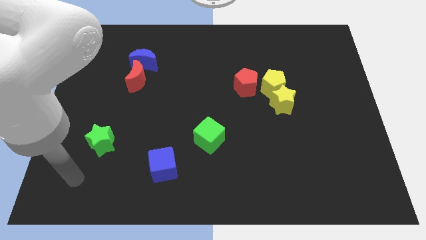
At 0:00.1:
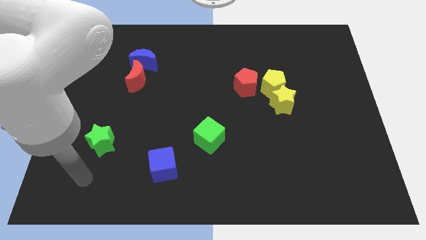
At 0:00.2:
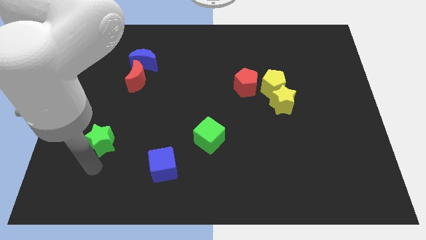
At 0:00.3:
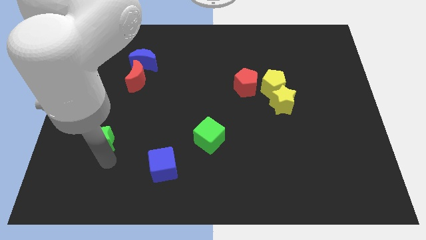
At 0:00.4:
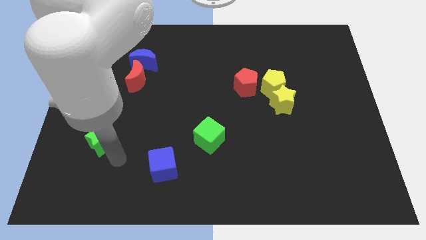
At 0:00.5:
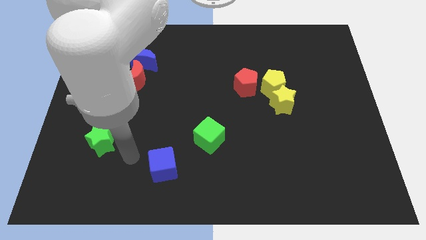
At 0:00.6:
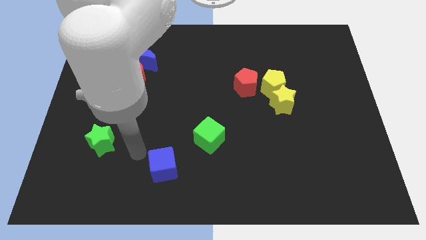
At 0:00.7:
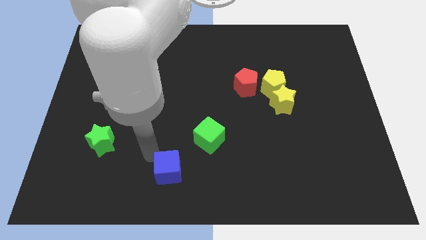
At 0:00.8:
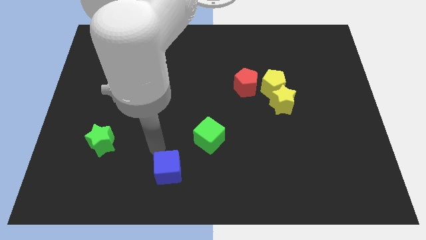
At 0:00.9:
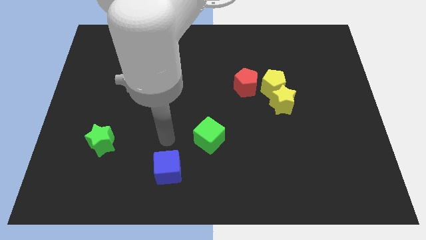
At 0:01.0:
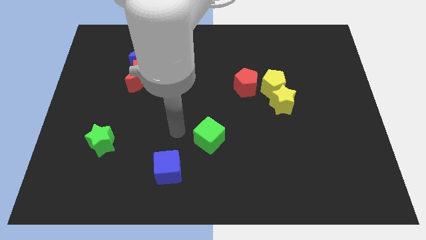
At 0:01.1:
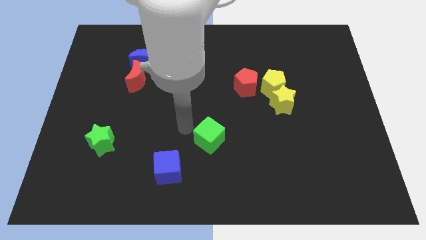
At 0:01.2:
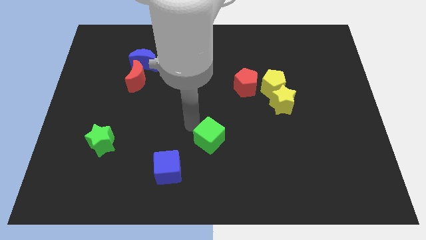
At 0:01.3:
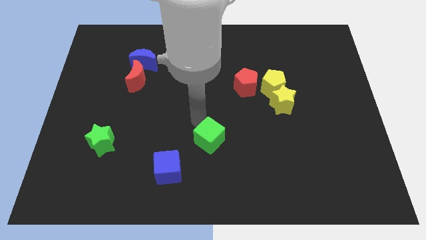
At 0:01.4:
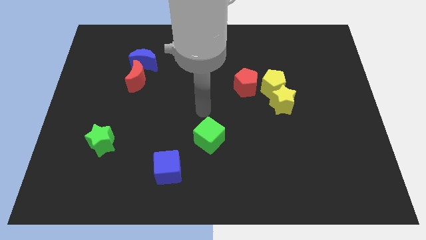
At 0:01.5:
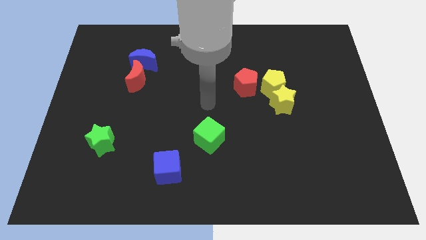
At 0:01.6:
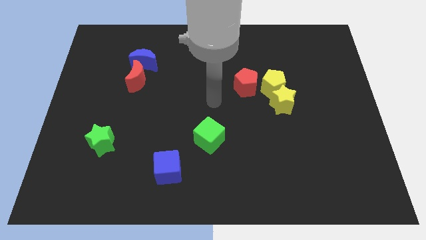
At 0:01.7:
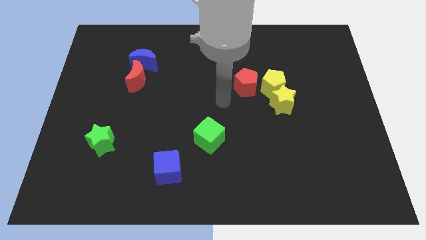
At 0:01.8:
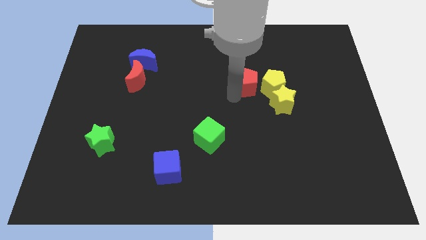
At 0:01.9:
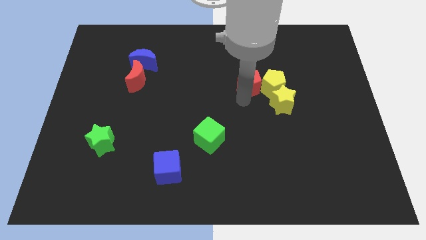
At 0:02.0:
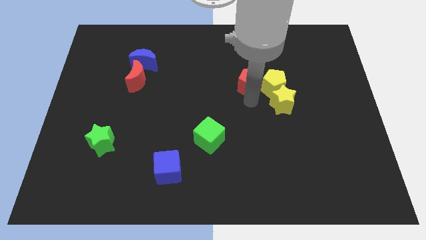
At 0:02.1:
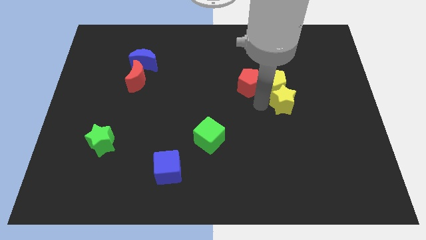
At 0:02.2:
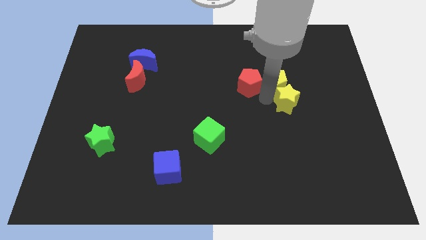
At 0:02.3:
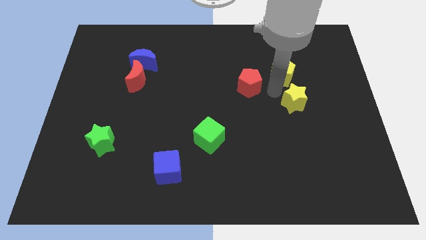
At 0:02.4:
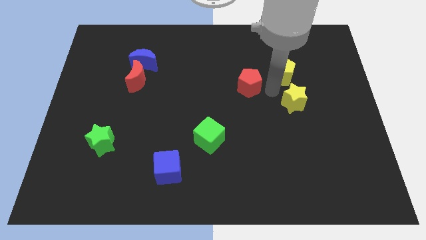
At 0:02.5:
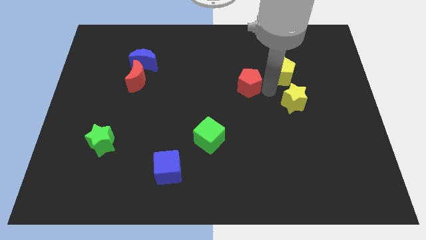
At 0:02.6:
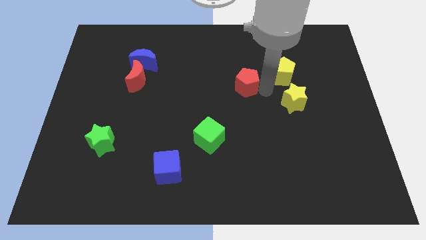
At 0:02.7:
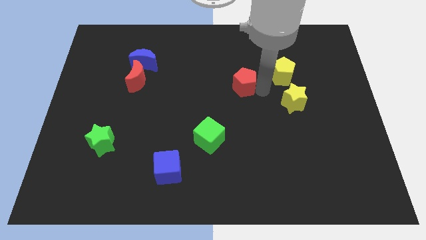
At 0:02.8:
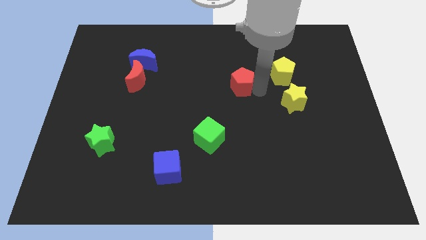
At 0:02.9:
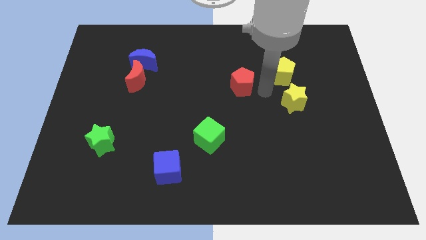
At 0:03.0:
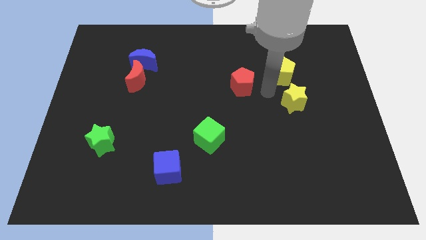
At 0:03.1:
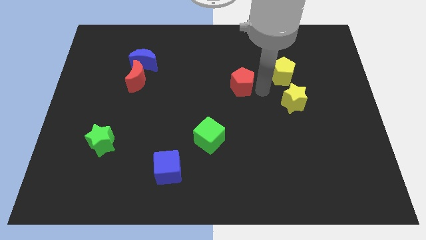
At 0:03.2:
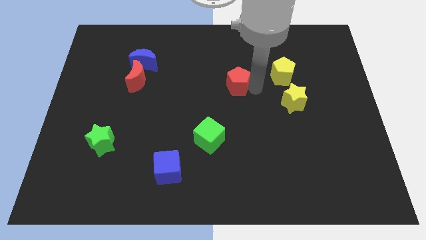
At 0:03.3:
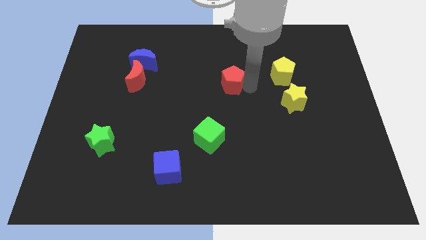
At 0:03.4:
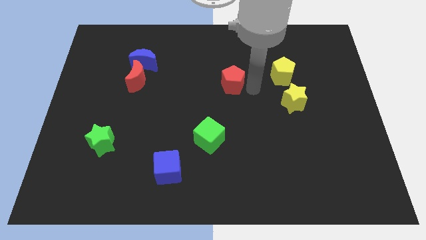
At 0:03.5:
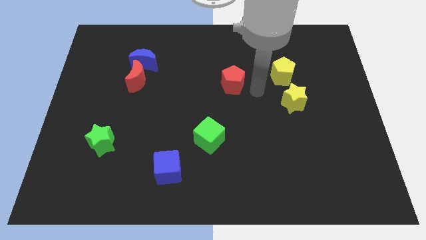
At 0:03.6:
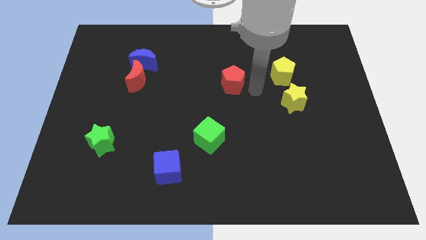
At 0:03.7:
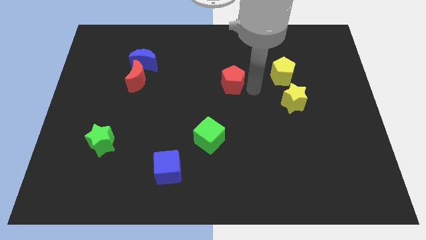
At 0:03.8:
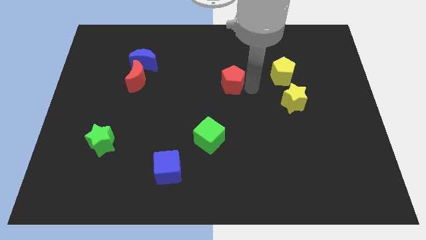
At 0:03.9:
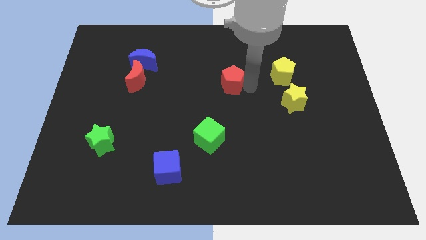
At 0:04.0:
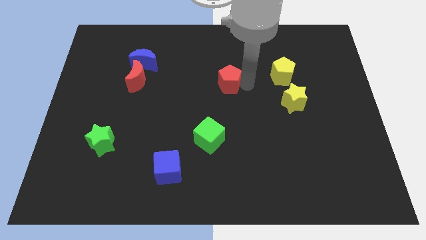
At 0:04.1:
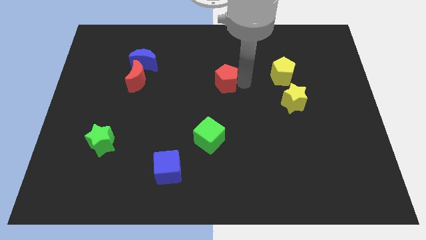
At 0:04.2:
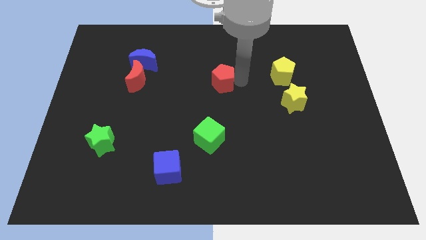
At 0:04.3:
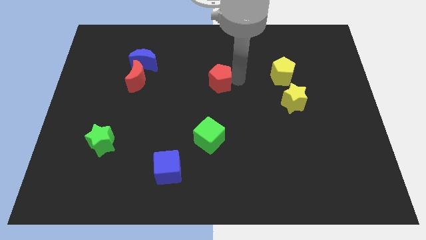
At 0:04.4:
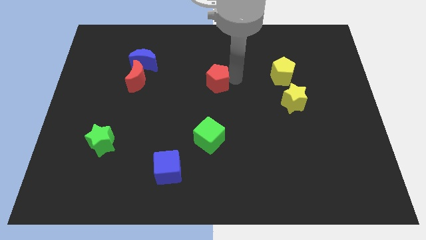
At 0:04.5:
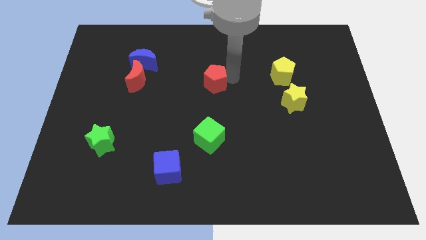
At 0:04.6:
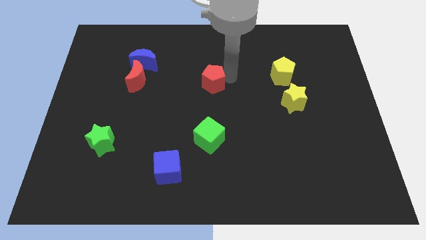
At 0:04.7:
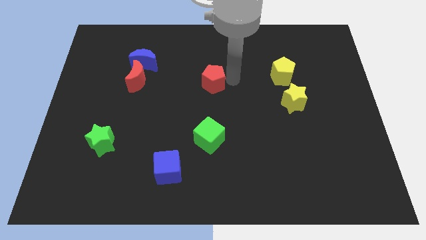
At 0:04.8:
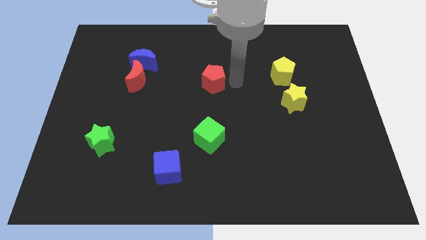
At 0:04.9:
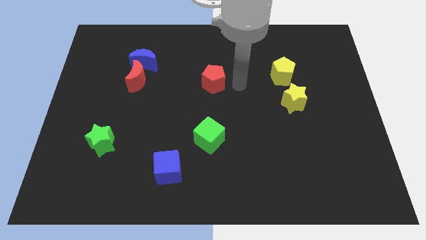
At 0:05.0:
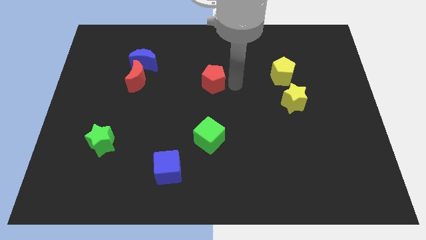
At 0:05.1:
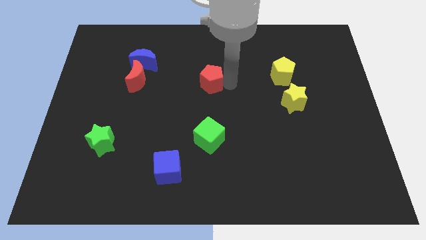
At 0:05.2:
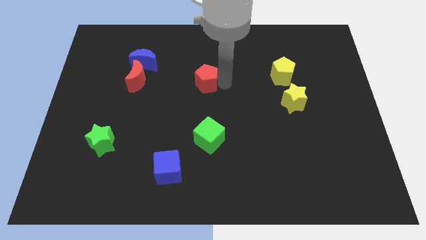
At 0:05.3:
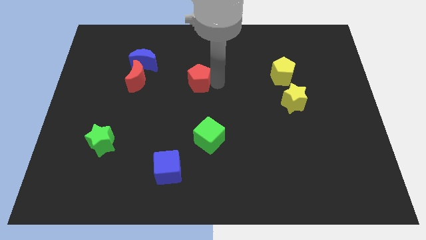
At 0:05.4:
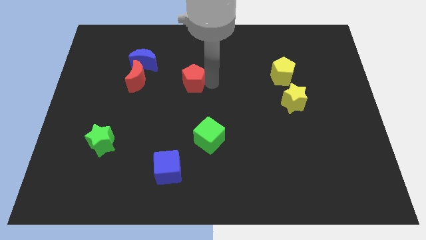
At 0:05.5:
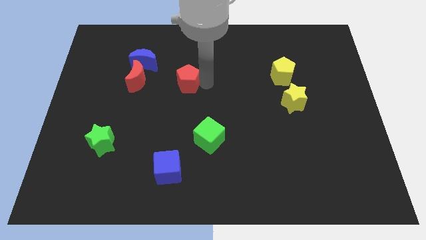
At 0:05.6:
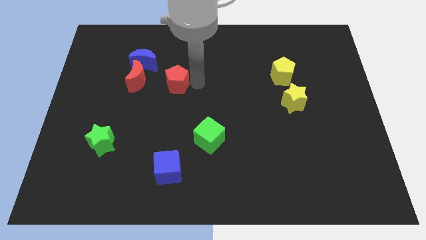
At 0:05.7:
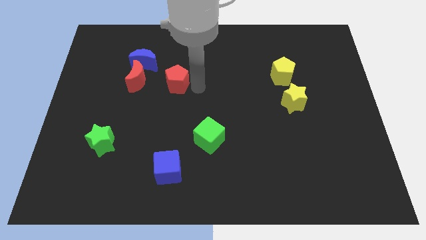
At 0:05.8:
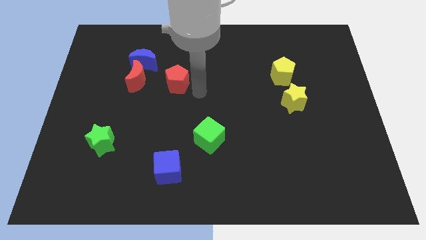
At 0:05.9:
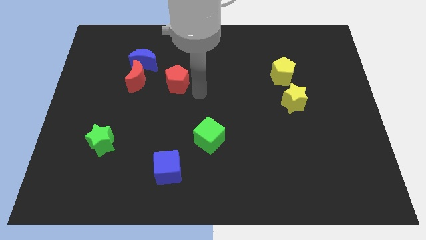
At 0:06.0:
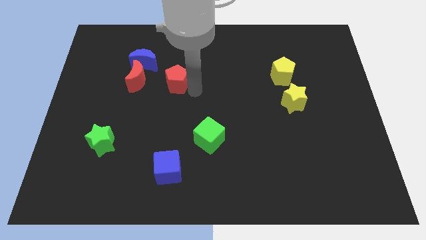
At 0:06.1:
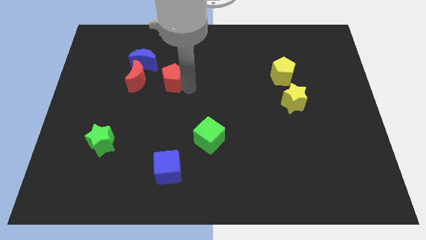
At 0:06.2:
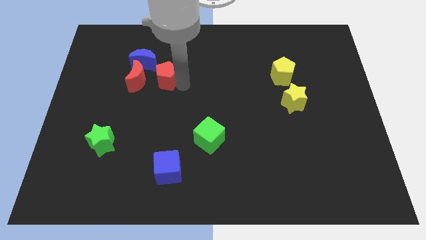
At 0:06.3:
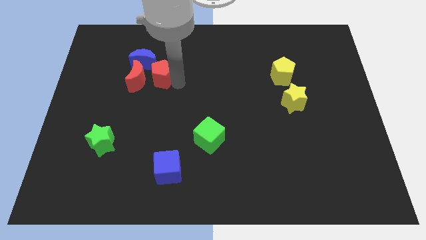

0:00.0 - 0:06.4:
put the red pentagon close to the red moon
